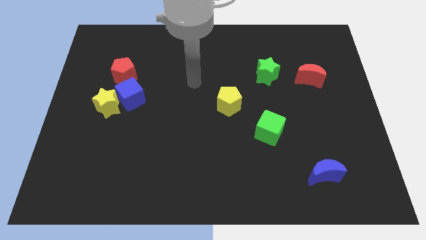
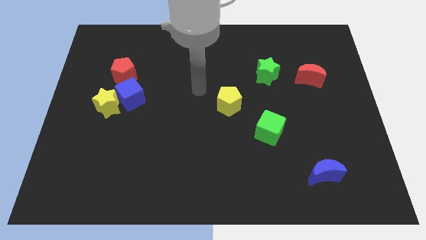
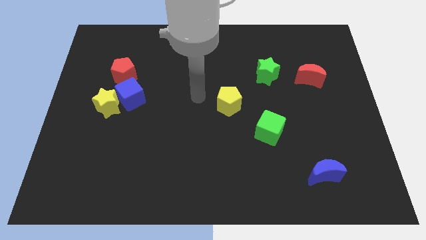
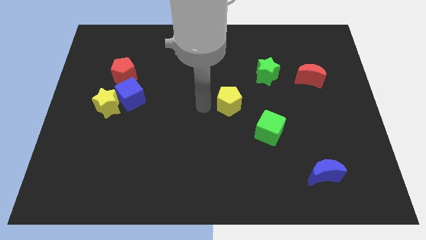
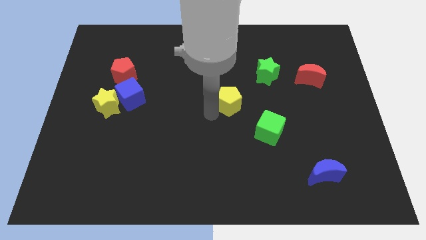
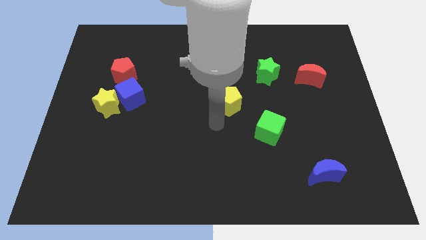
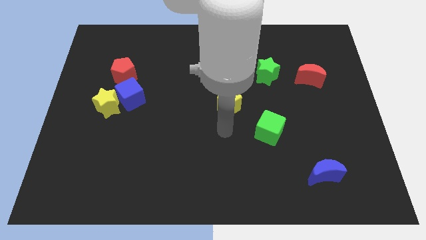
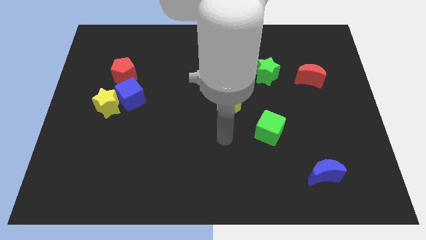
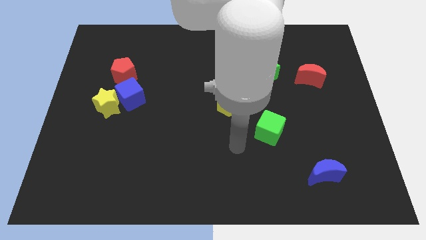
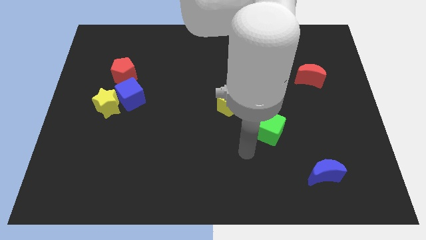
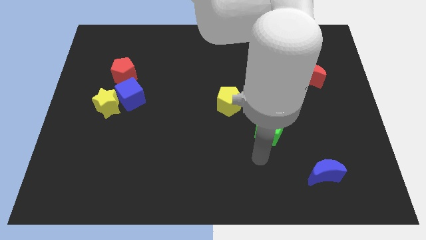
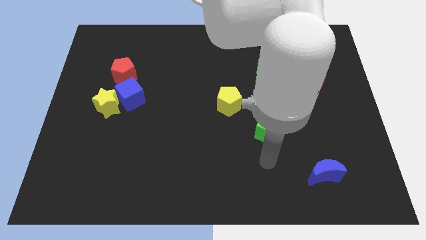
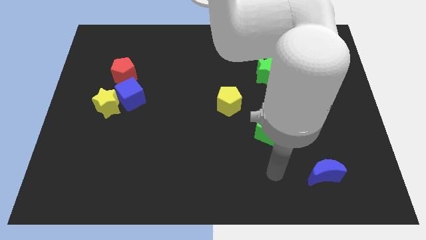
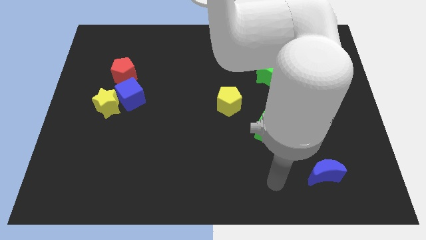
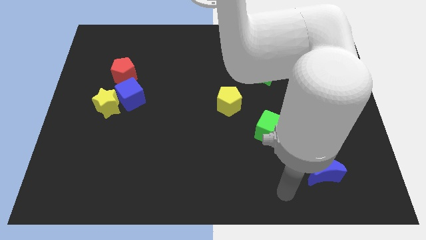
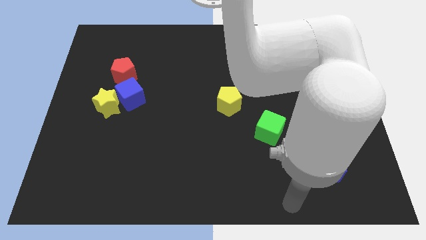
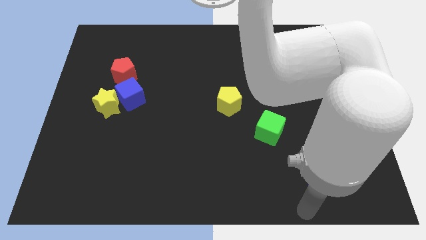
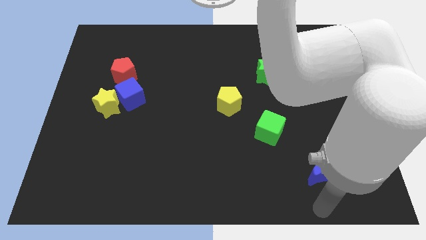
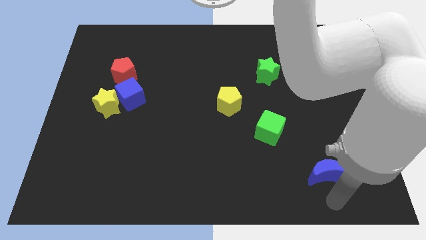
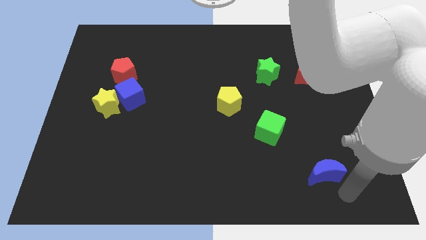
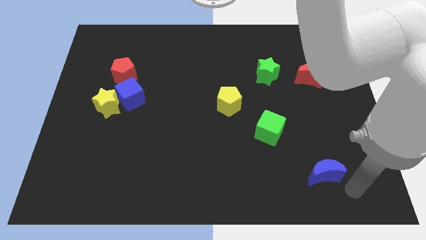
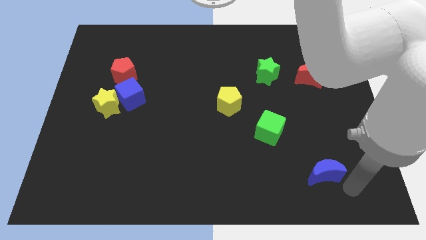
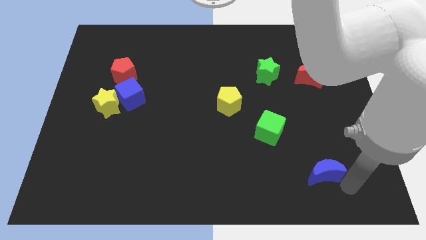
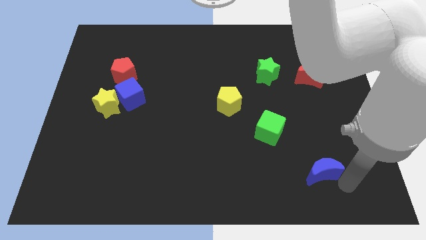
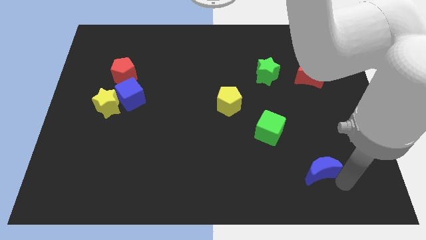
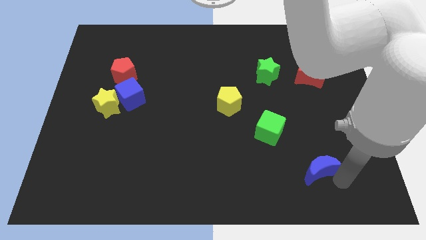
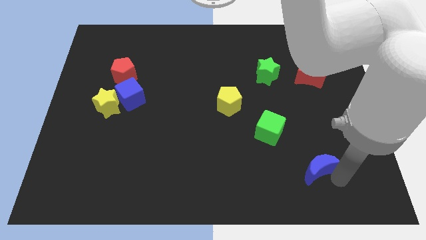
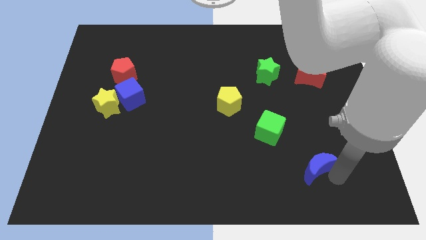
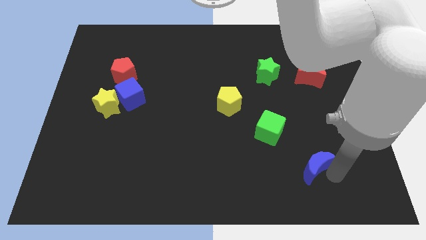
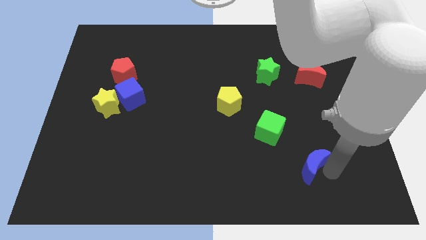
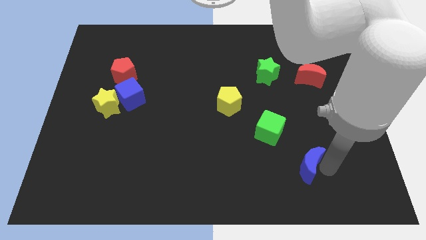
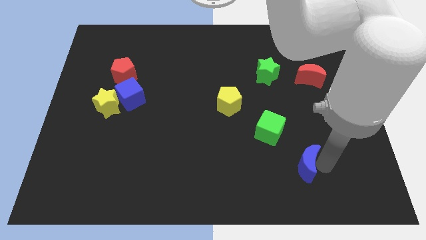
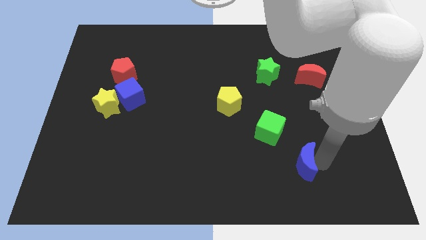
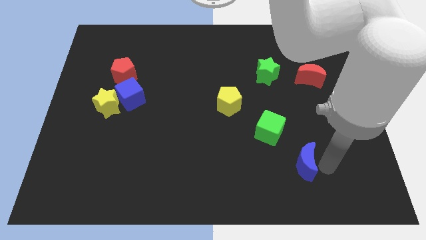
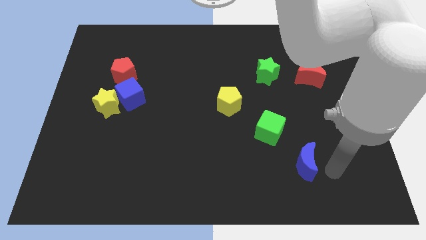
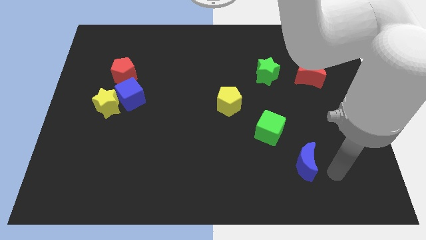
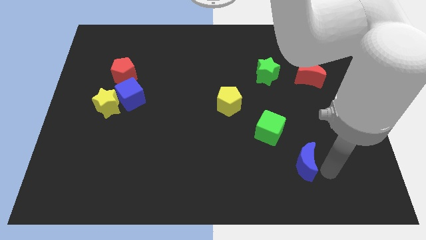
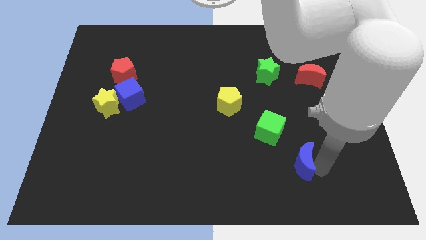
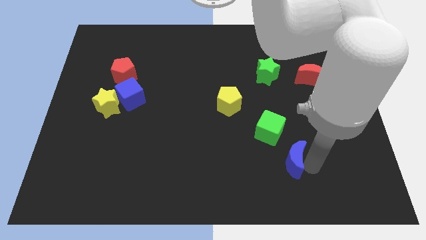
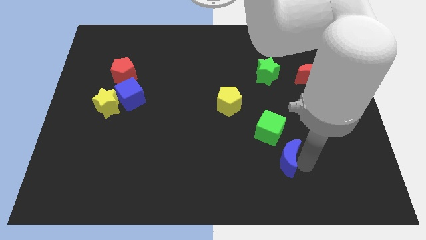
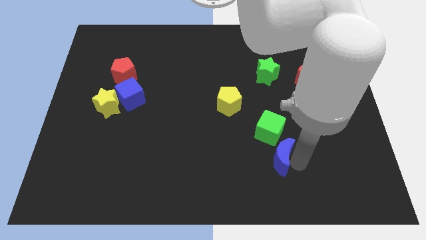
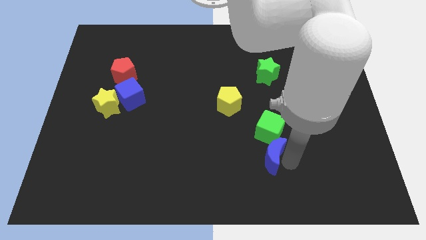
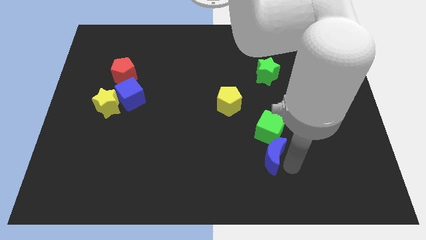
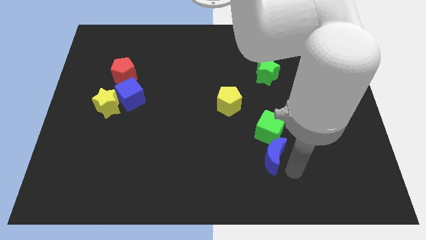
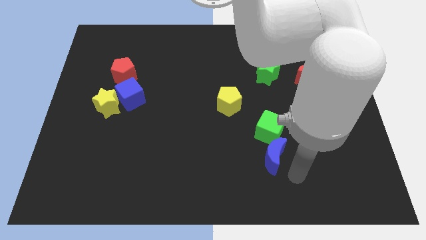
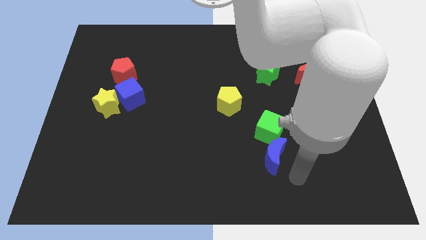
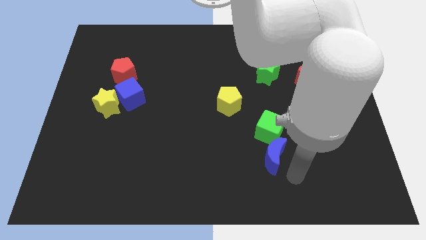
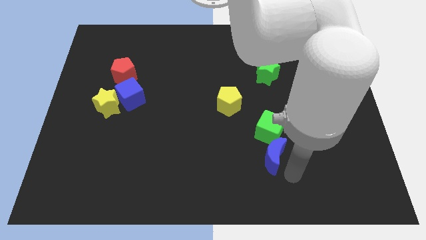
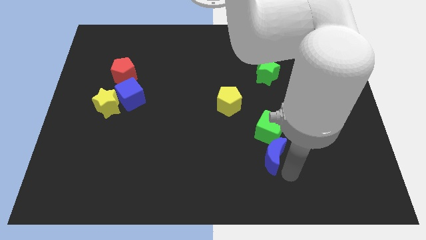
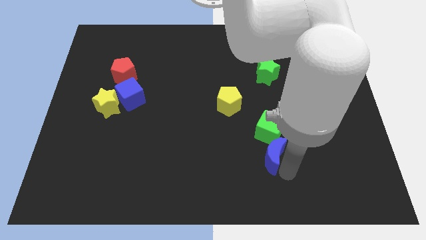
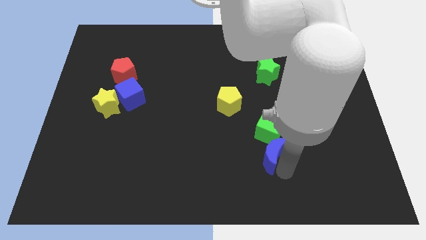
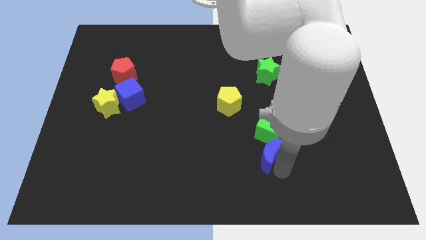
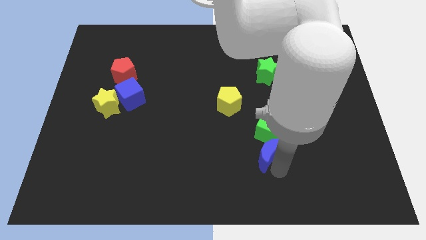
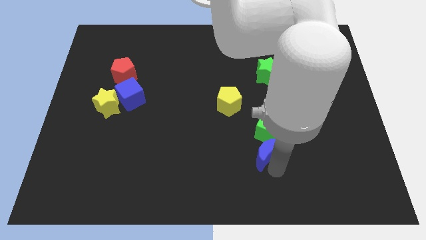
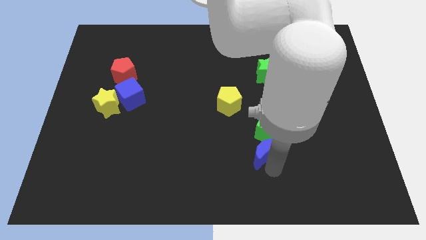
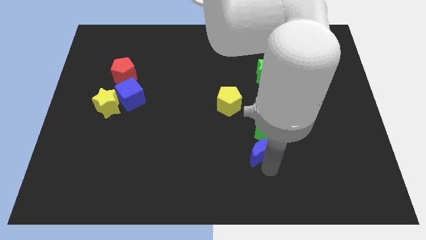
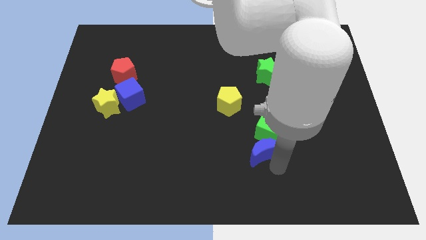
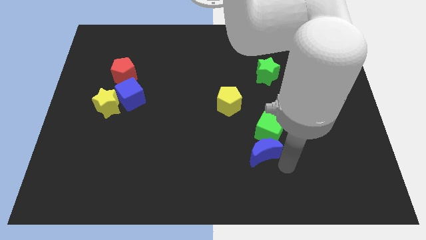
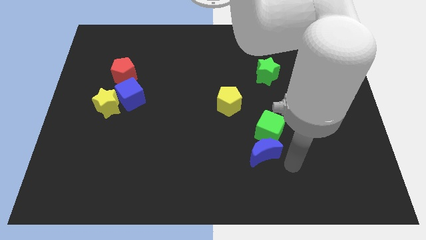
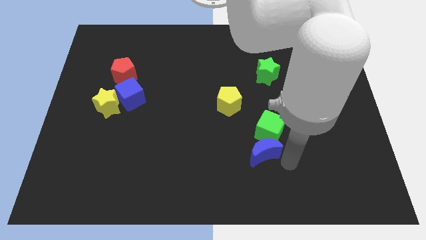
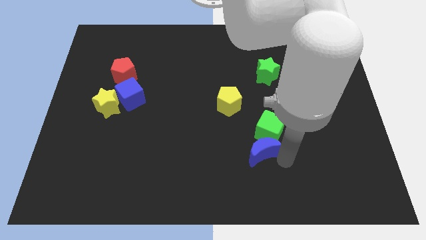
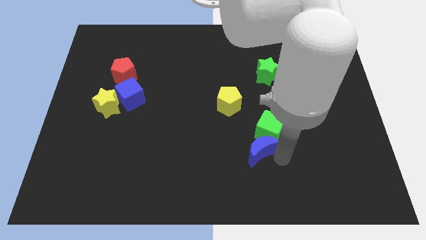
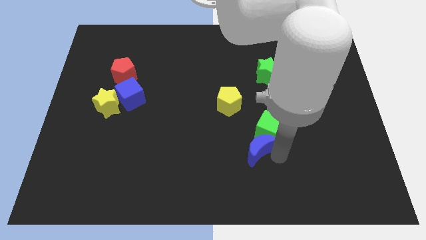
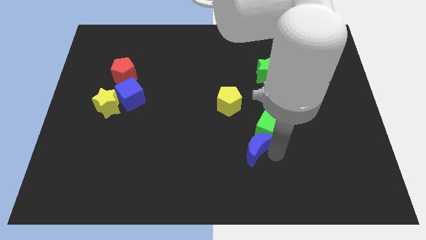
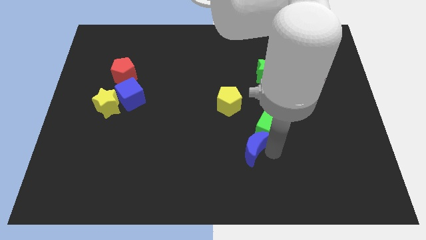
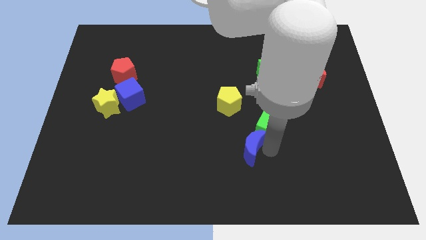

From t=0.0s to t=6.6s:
push the blue moon to the bottom side of the yellow pentagon

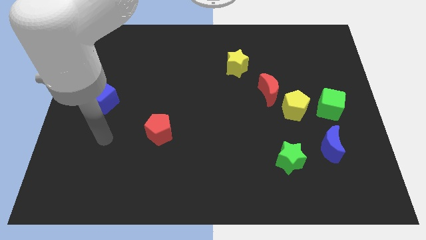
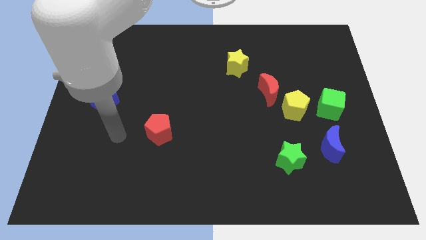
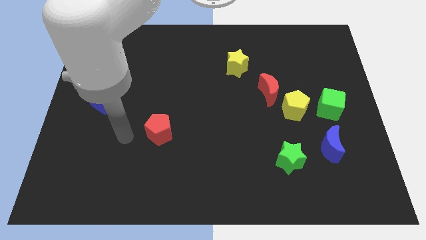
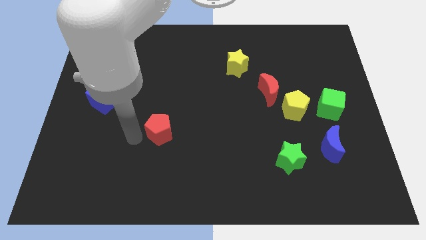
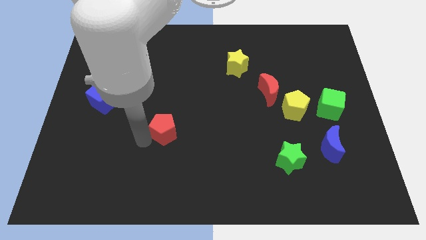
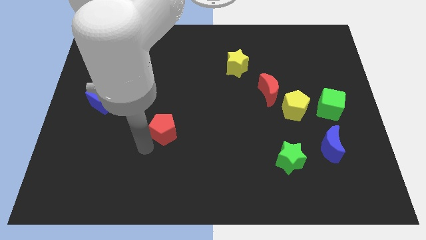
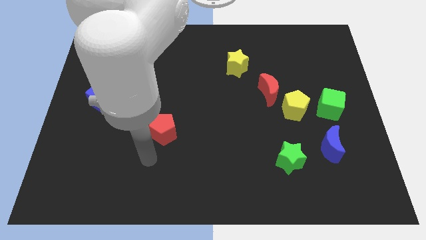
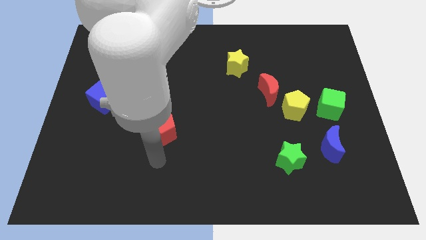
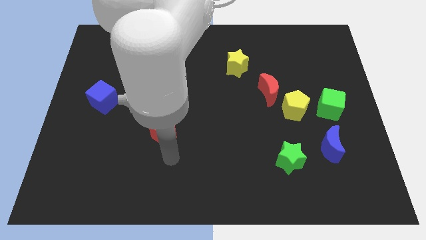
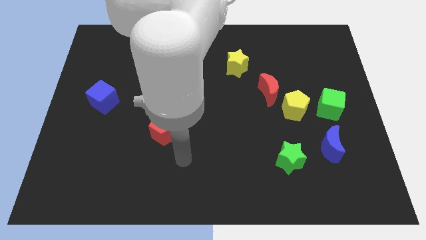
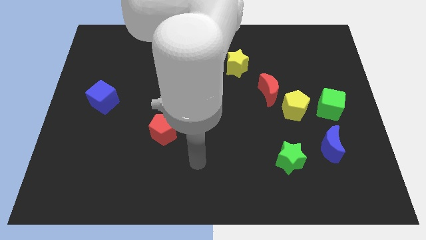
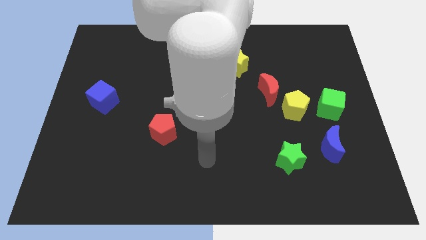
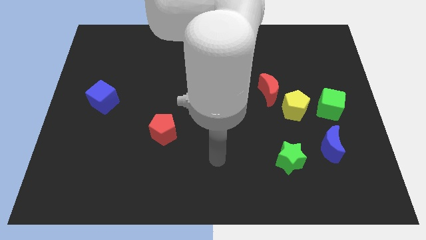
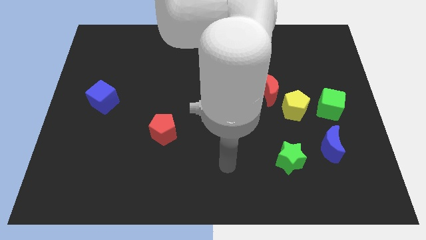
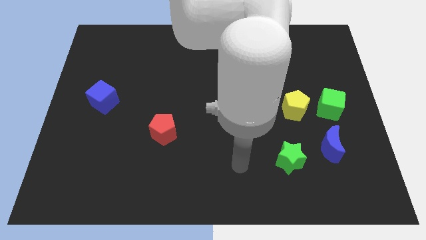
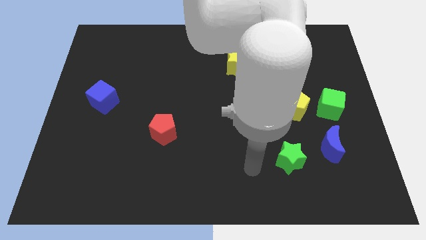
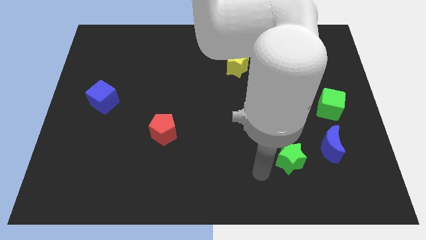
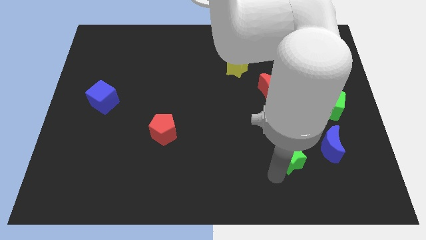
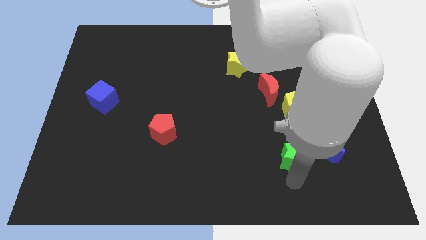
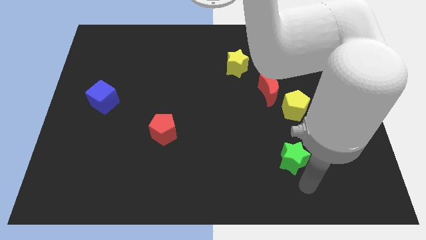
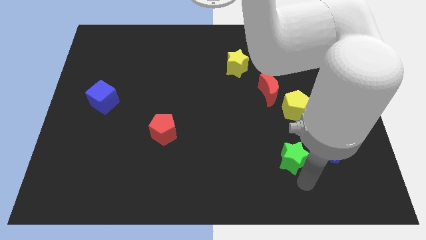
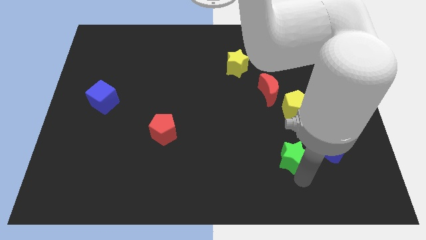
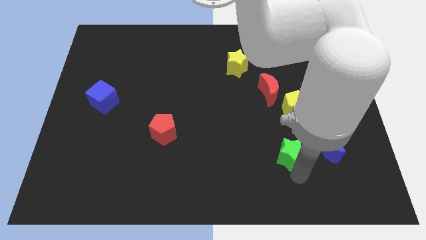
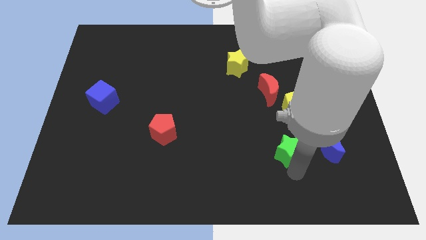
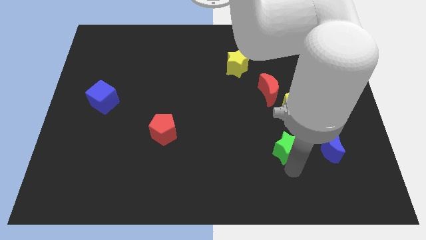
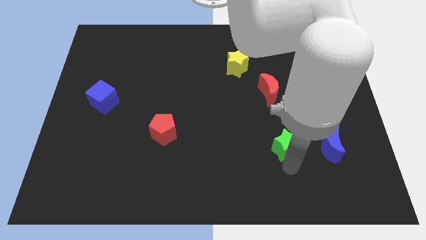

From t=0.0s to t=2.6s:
push the green star below the red moon
